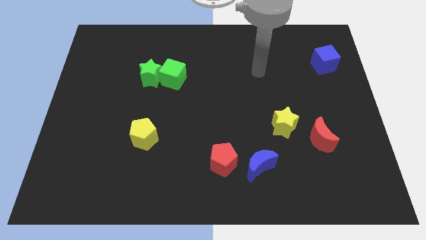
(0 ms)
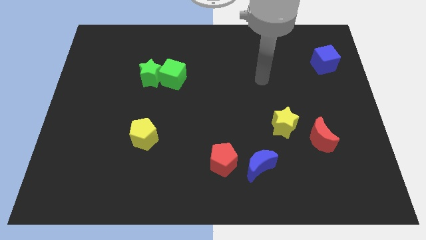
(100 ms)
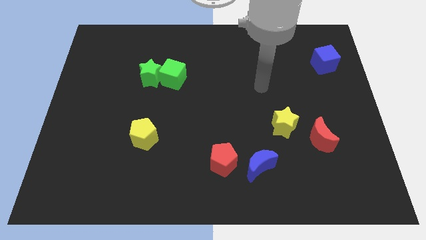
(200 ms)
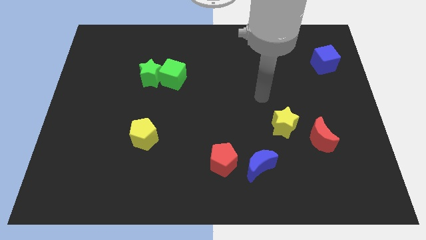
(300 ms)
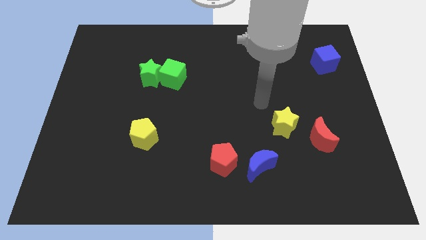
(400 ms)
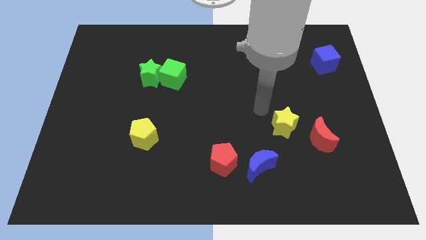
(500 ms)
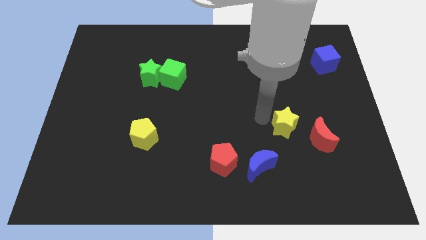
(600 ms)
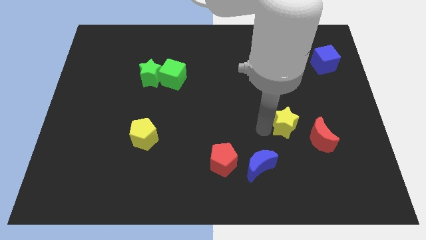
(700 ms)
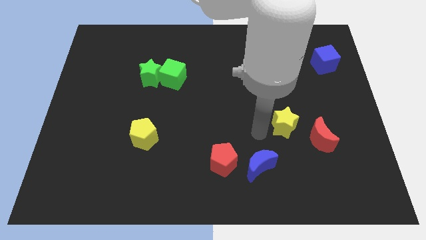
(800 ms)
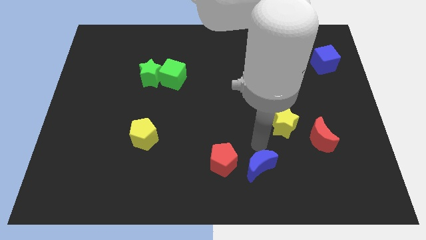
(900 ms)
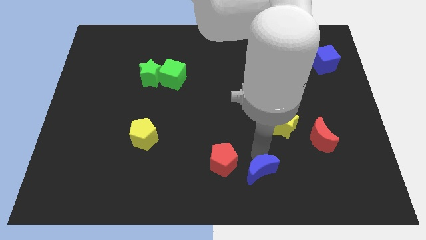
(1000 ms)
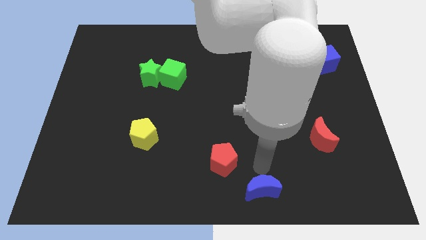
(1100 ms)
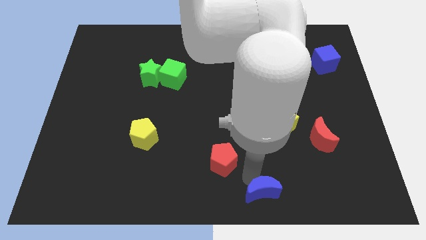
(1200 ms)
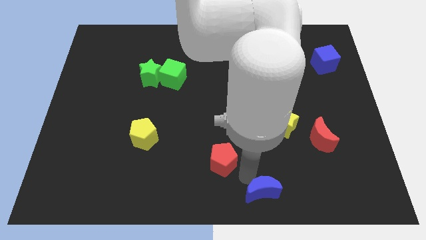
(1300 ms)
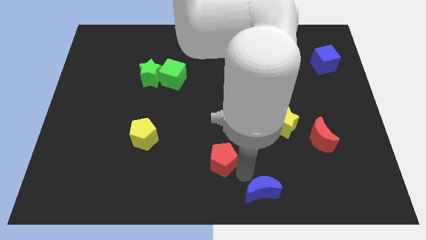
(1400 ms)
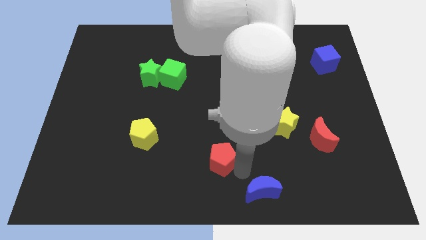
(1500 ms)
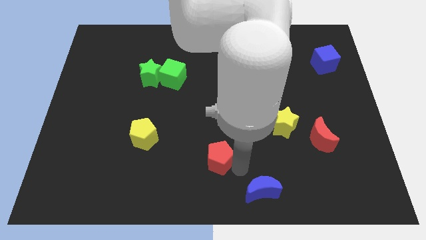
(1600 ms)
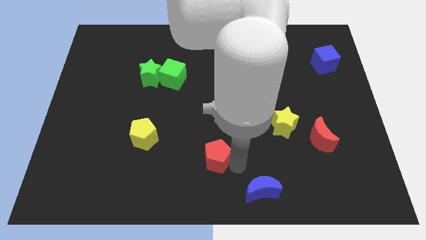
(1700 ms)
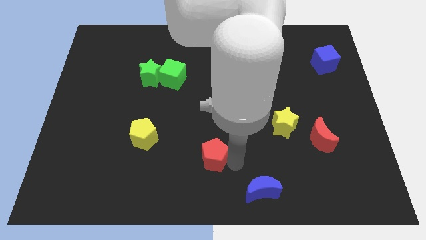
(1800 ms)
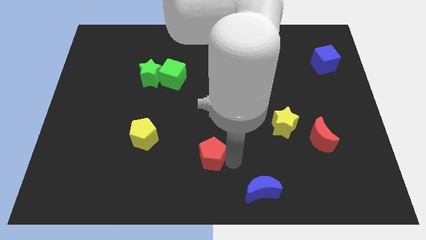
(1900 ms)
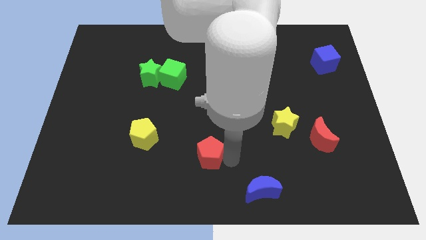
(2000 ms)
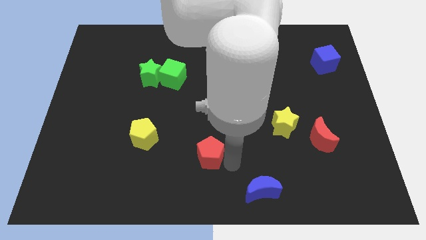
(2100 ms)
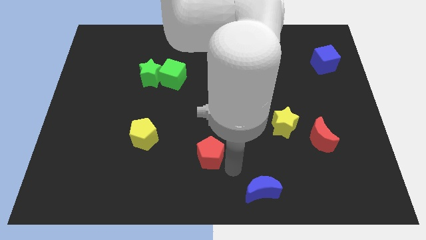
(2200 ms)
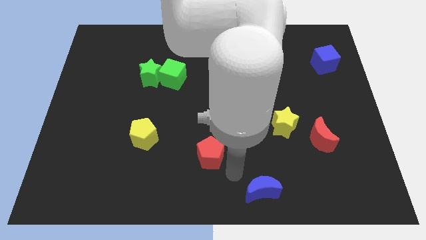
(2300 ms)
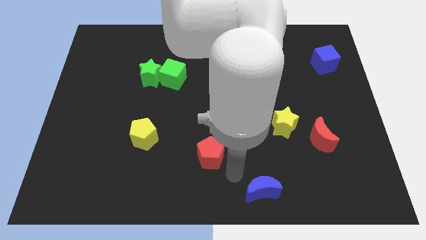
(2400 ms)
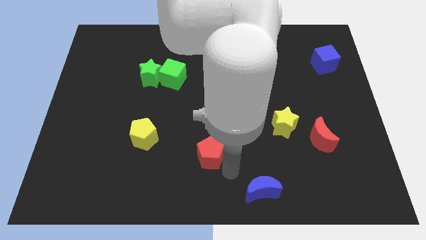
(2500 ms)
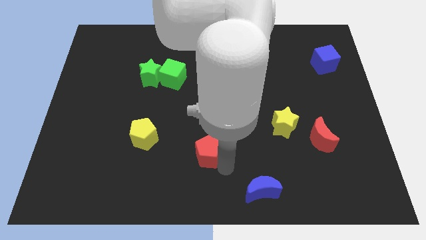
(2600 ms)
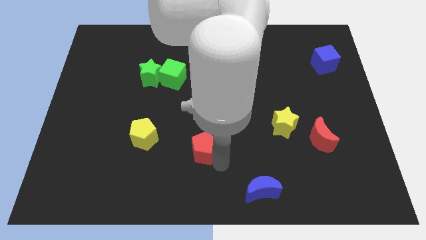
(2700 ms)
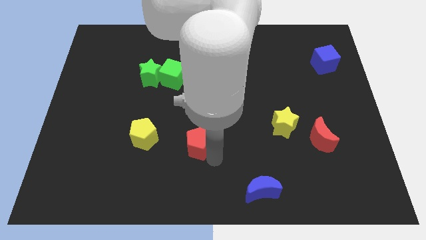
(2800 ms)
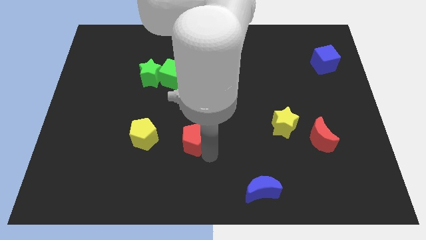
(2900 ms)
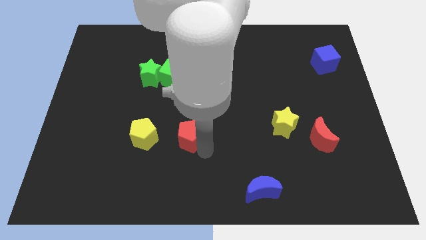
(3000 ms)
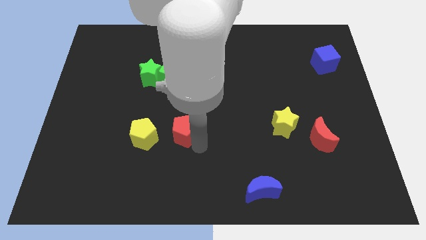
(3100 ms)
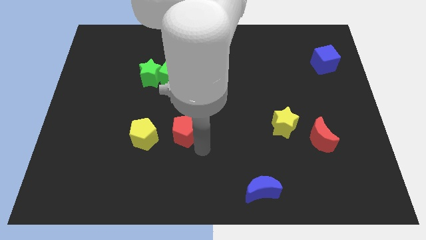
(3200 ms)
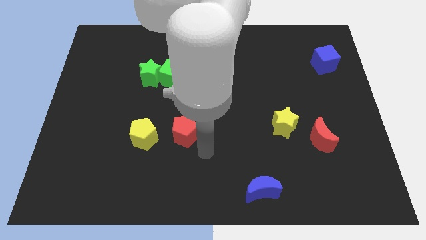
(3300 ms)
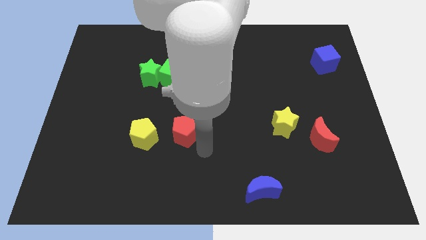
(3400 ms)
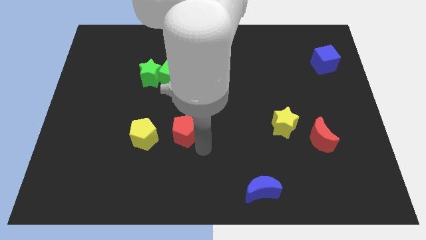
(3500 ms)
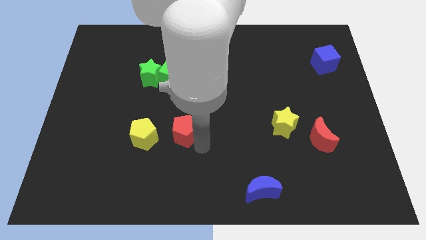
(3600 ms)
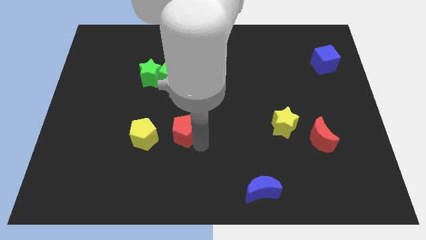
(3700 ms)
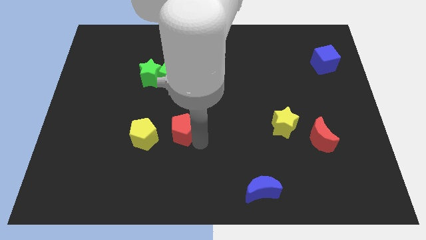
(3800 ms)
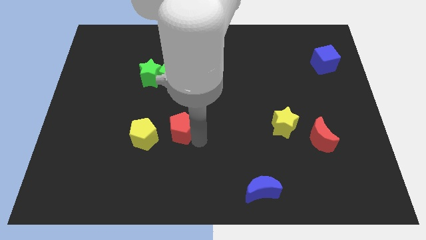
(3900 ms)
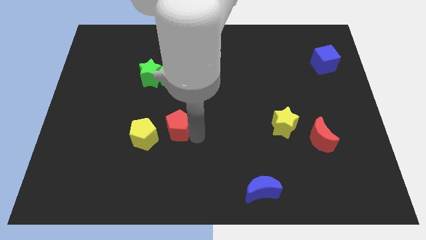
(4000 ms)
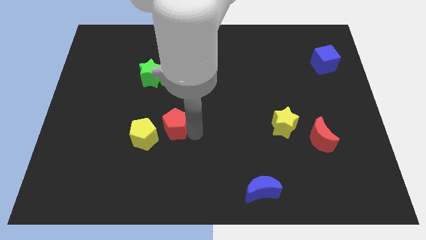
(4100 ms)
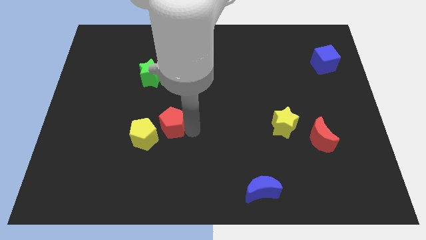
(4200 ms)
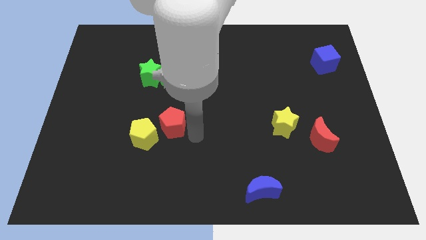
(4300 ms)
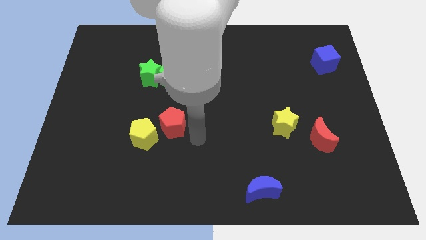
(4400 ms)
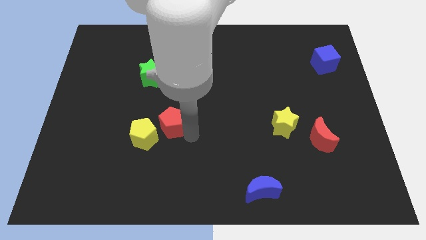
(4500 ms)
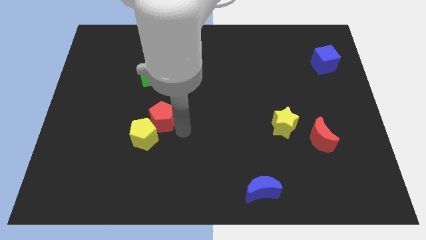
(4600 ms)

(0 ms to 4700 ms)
put the red pentagon to the bottom side of the green star

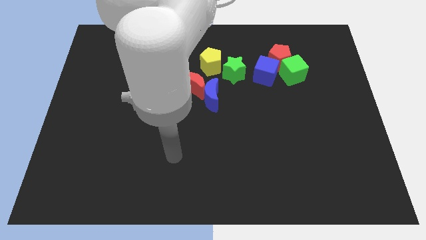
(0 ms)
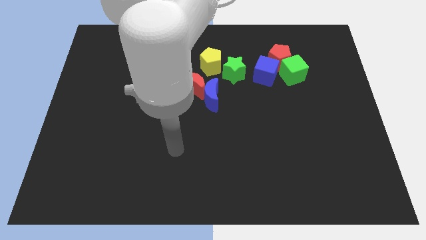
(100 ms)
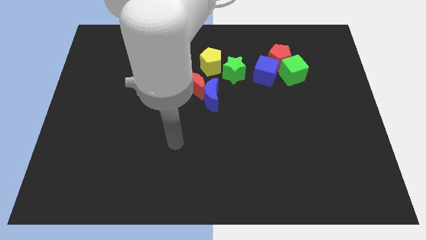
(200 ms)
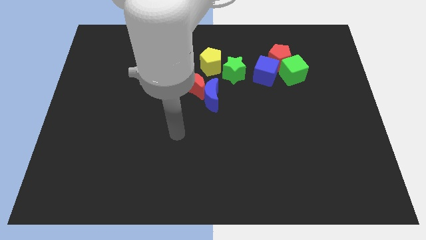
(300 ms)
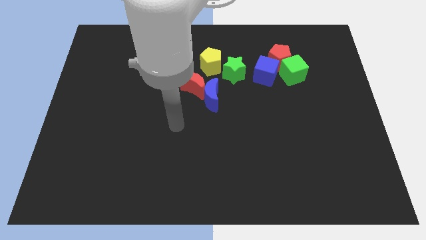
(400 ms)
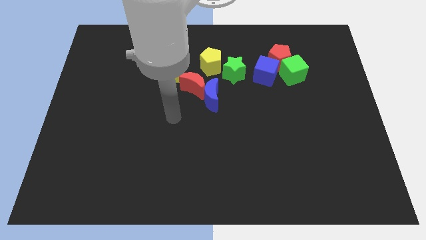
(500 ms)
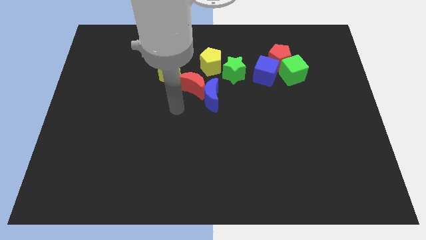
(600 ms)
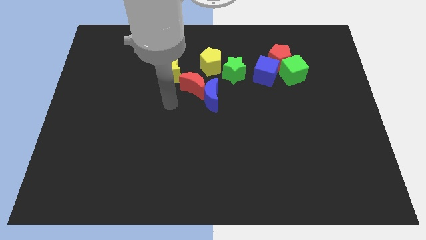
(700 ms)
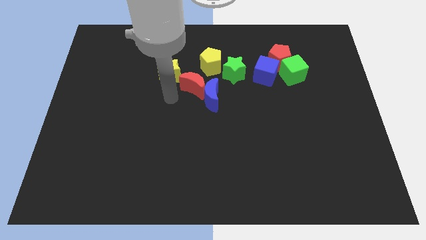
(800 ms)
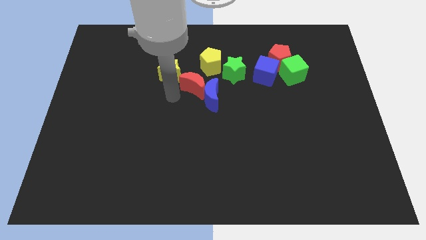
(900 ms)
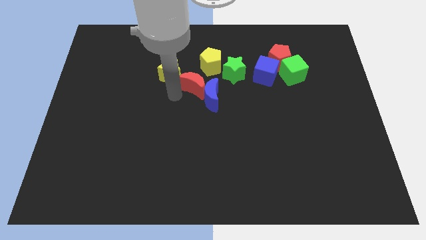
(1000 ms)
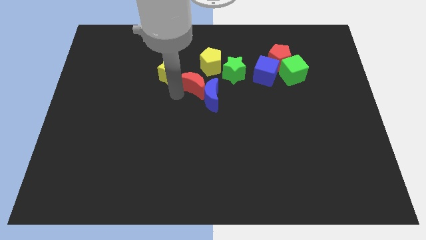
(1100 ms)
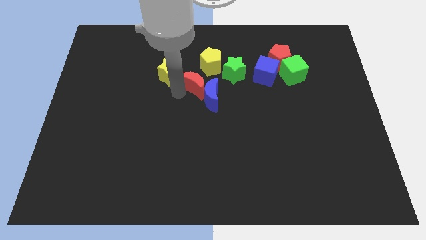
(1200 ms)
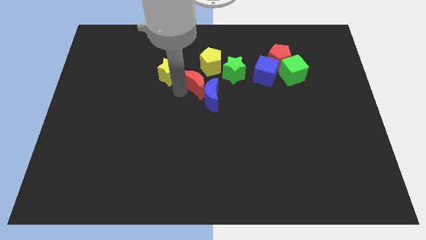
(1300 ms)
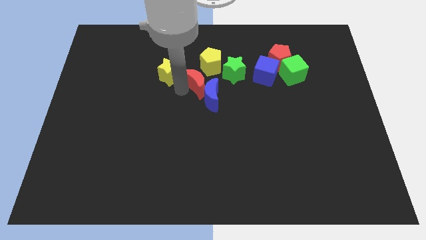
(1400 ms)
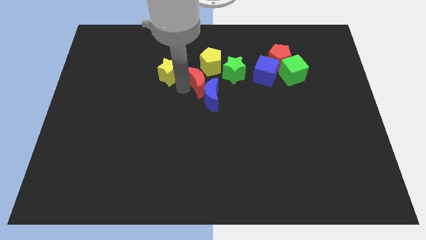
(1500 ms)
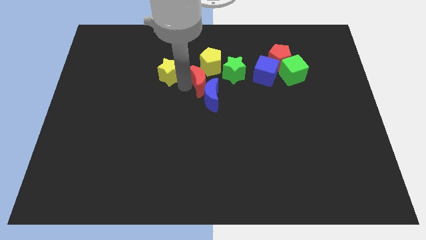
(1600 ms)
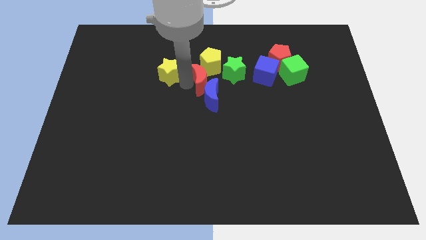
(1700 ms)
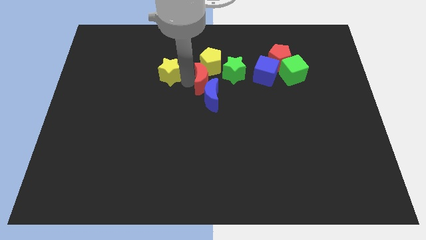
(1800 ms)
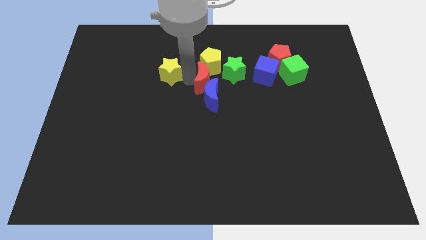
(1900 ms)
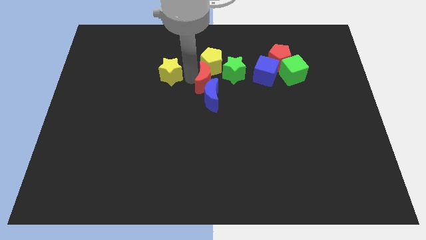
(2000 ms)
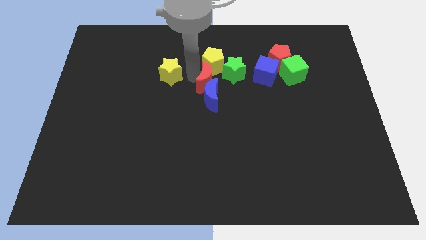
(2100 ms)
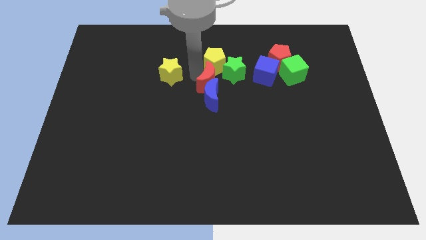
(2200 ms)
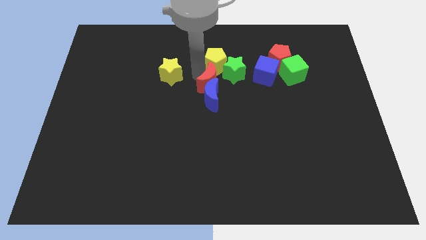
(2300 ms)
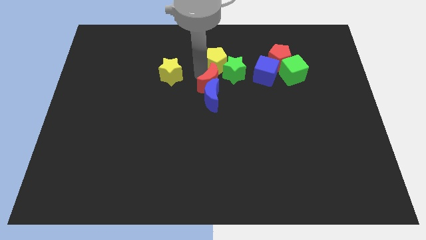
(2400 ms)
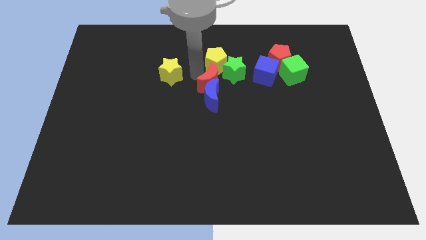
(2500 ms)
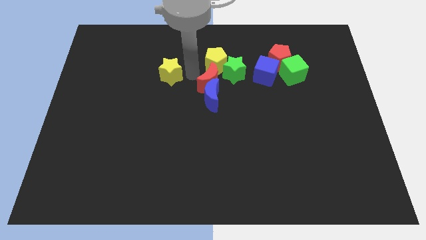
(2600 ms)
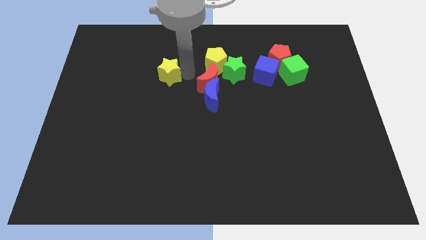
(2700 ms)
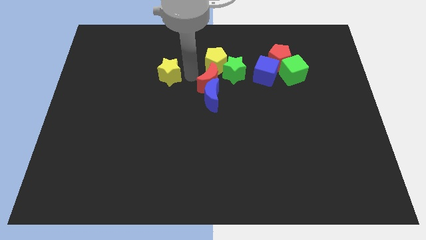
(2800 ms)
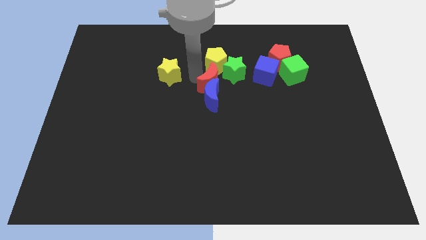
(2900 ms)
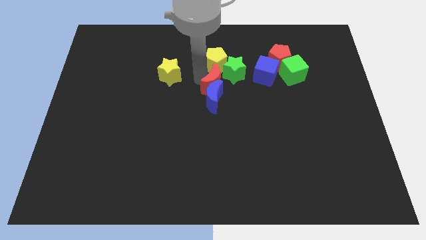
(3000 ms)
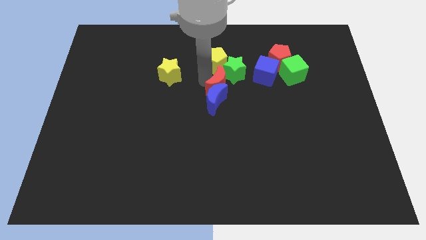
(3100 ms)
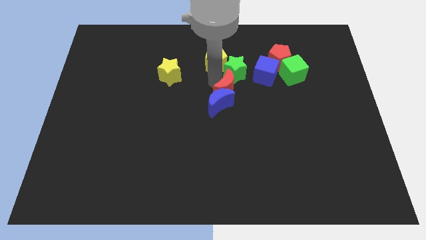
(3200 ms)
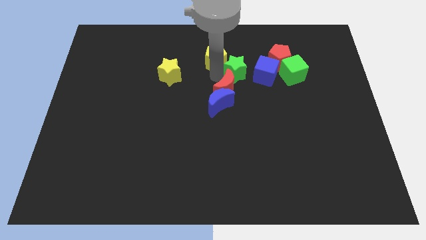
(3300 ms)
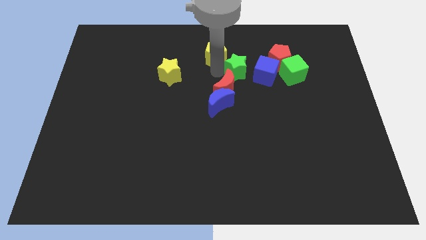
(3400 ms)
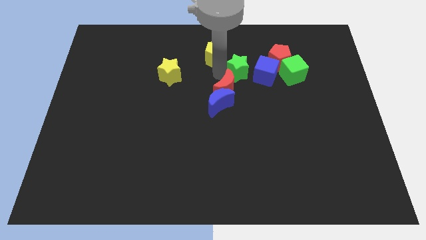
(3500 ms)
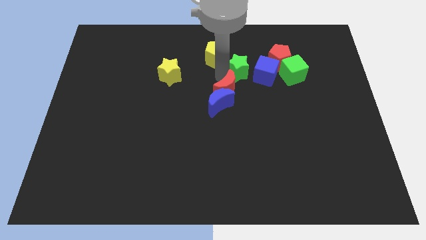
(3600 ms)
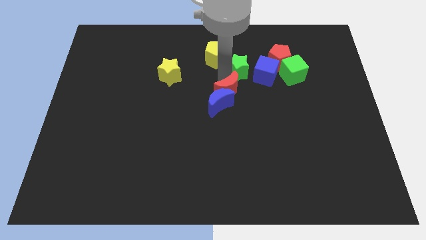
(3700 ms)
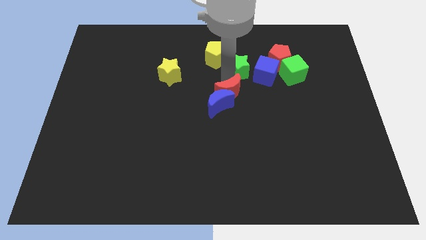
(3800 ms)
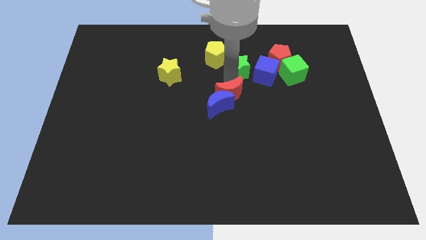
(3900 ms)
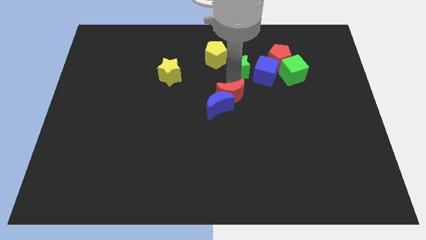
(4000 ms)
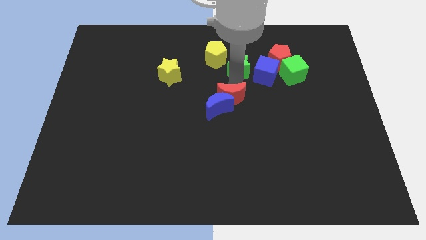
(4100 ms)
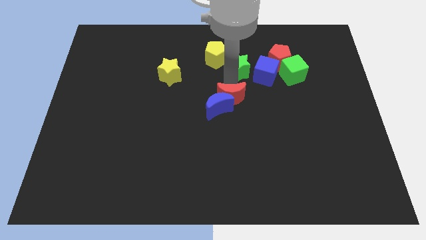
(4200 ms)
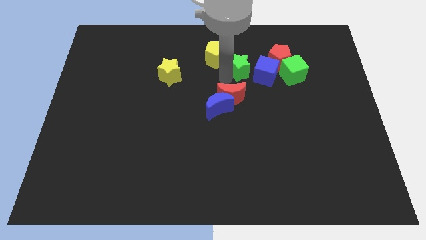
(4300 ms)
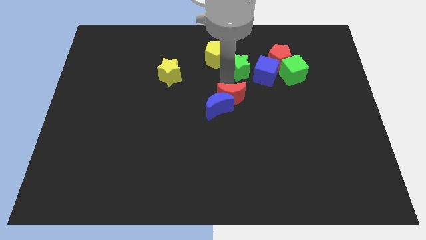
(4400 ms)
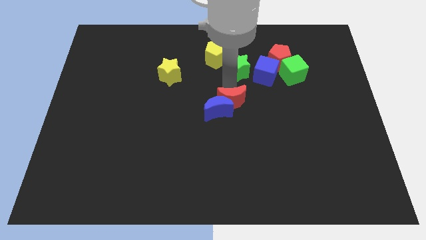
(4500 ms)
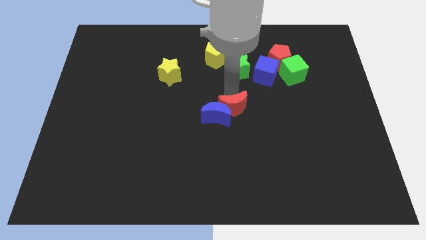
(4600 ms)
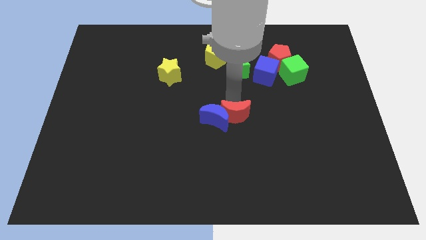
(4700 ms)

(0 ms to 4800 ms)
slide the red moon to the bottom right side of the blue moon
